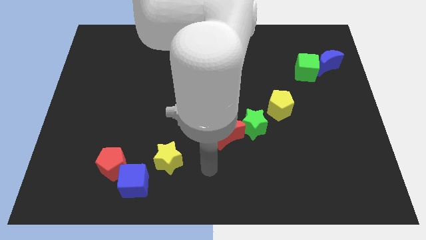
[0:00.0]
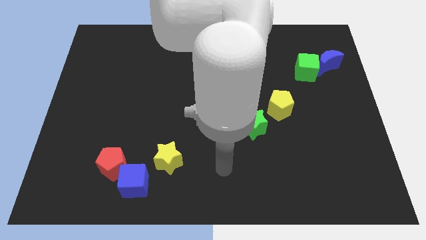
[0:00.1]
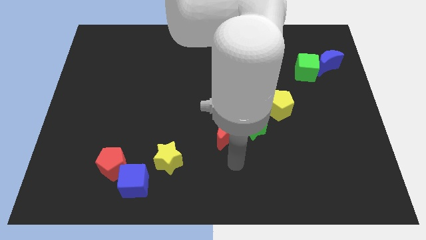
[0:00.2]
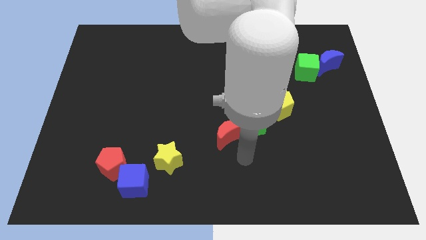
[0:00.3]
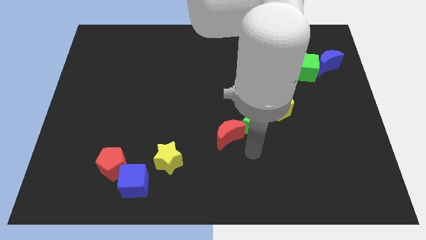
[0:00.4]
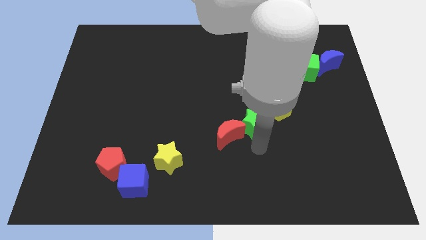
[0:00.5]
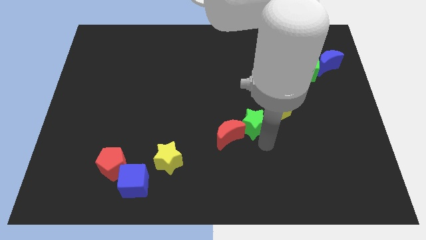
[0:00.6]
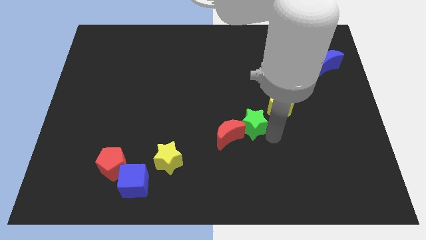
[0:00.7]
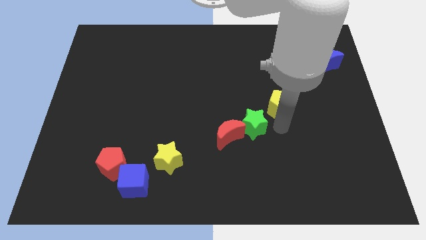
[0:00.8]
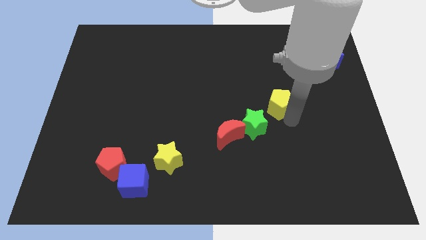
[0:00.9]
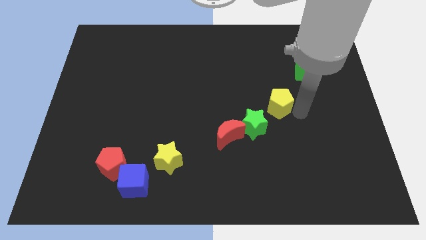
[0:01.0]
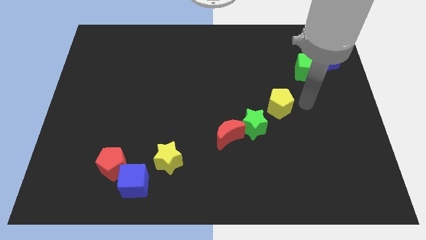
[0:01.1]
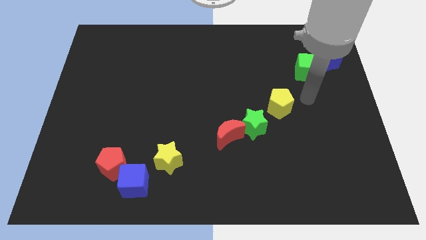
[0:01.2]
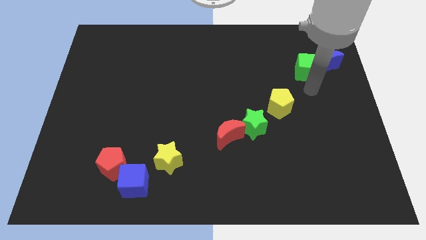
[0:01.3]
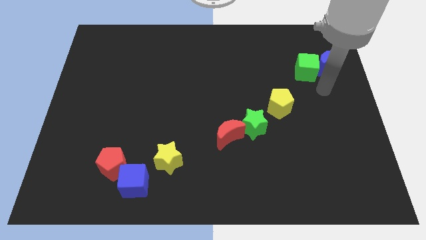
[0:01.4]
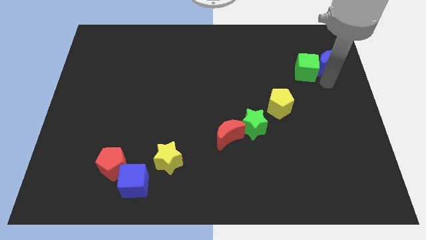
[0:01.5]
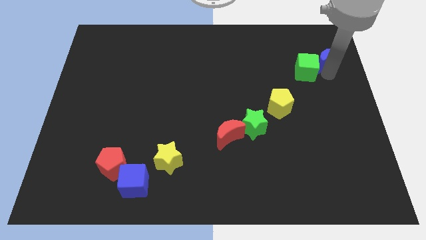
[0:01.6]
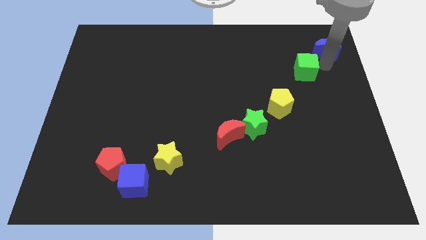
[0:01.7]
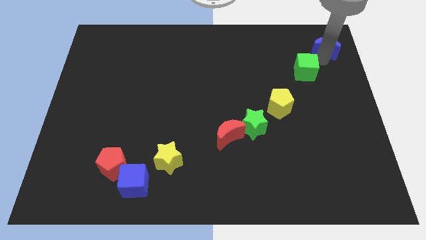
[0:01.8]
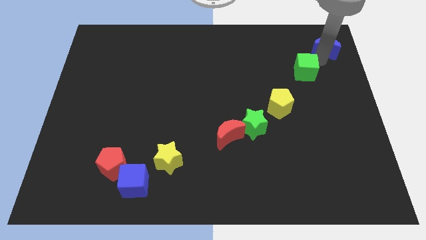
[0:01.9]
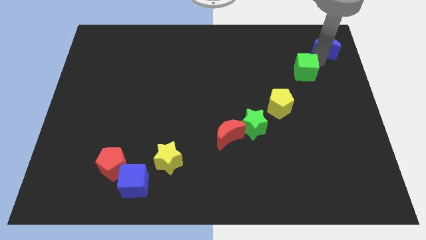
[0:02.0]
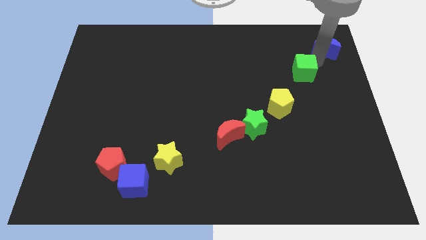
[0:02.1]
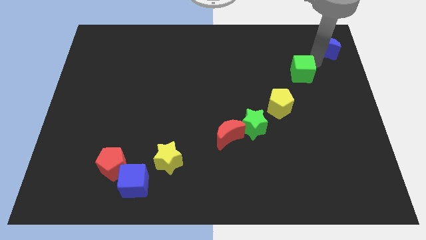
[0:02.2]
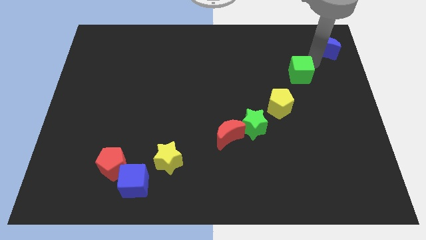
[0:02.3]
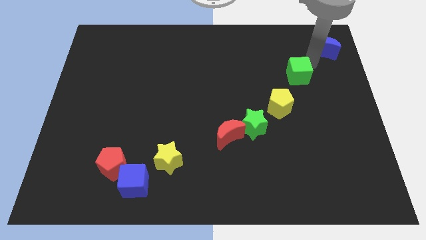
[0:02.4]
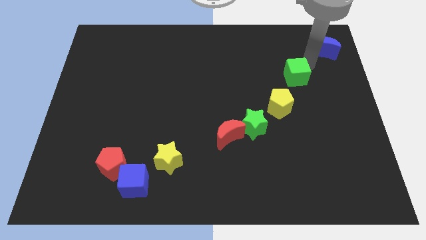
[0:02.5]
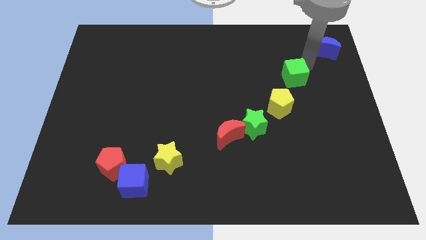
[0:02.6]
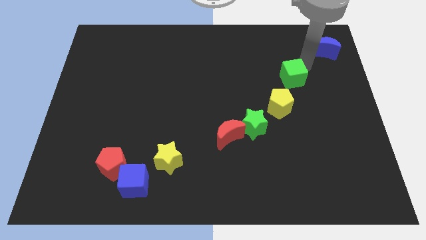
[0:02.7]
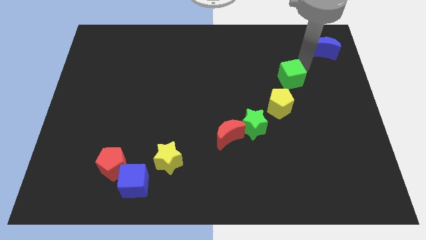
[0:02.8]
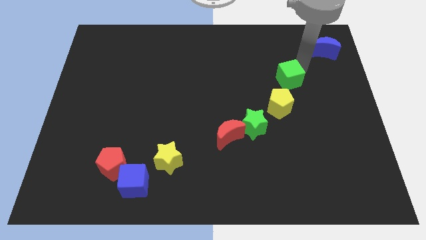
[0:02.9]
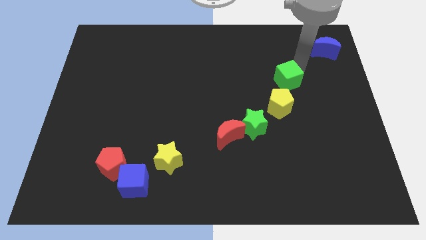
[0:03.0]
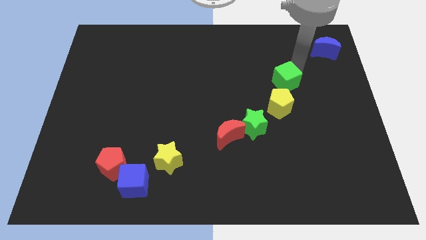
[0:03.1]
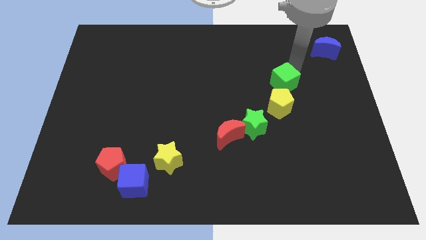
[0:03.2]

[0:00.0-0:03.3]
push the green cube downwards and then left a little bit

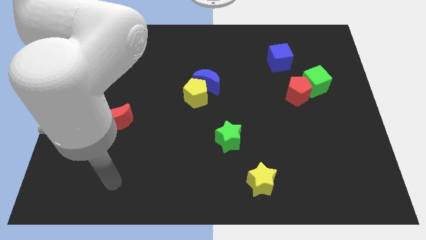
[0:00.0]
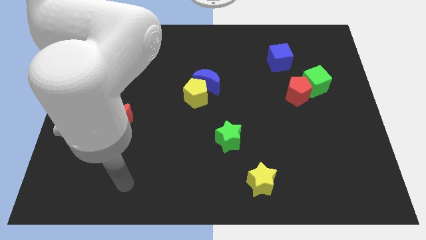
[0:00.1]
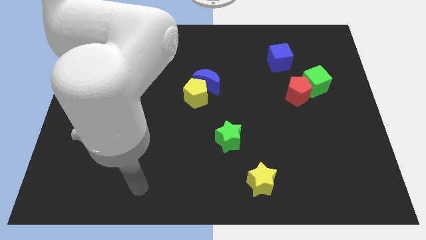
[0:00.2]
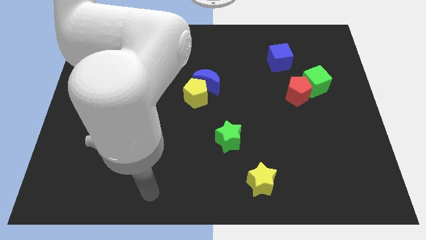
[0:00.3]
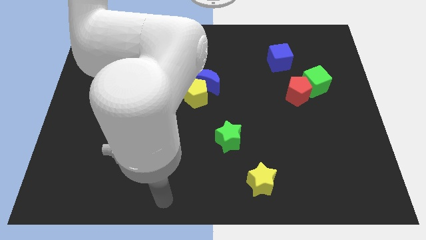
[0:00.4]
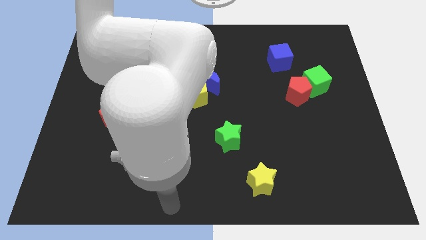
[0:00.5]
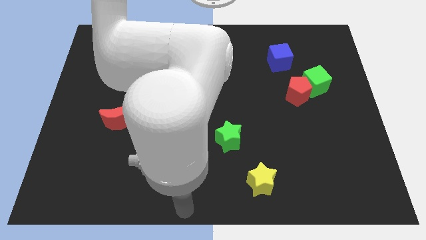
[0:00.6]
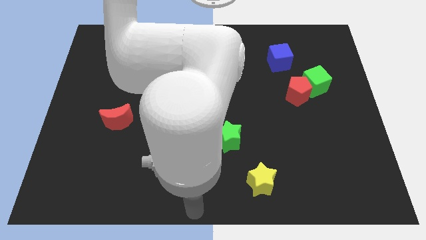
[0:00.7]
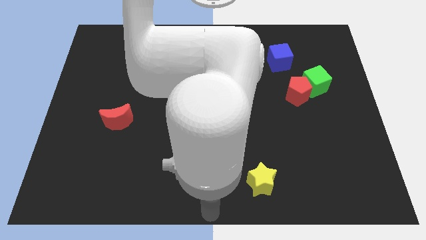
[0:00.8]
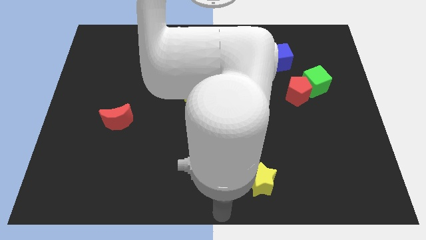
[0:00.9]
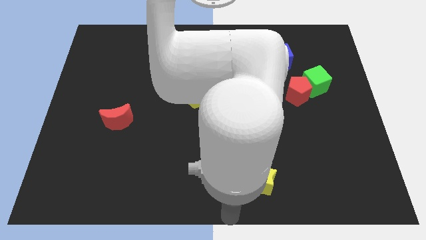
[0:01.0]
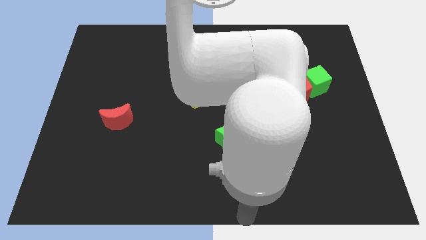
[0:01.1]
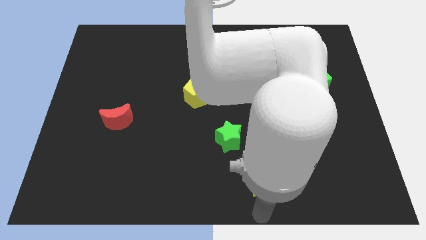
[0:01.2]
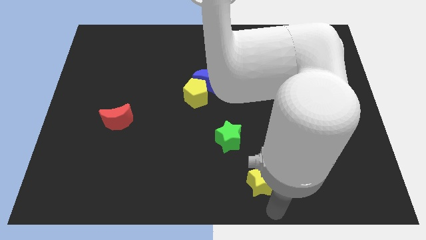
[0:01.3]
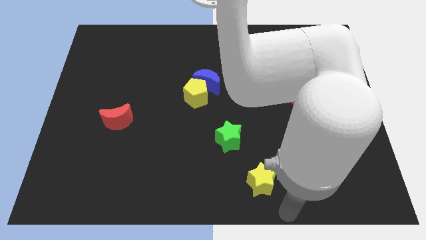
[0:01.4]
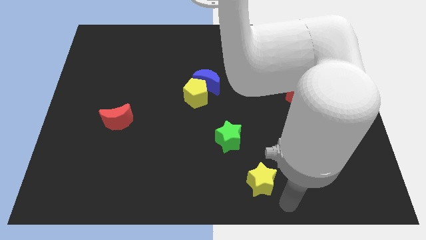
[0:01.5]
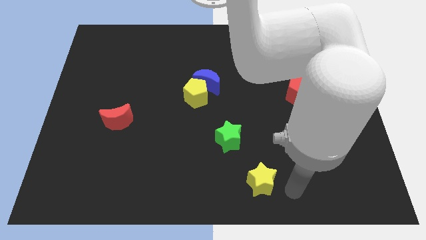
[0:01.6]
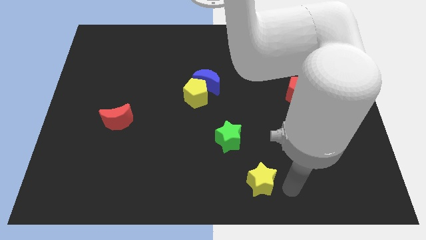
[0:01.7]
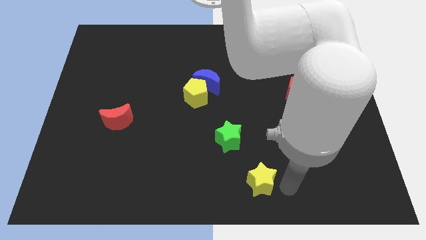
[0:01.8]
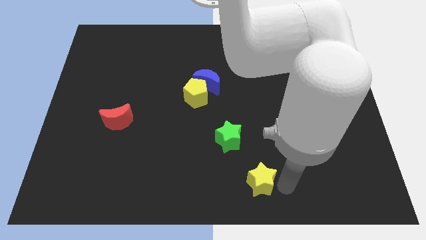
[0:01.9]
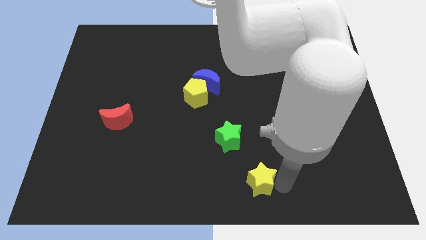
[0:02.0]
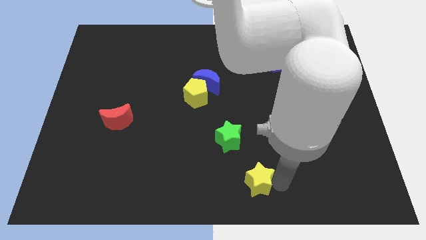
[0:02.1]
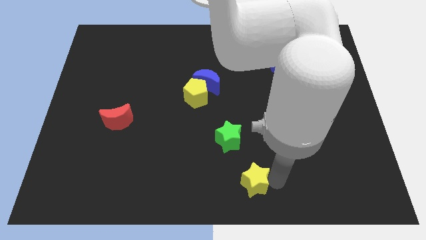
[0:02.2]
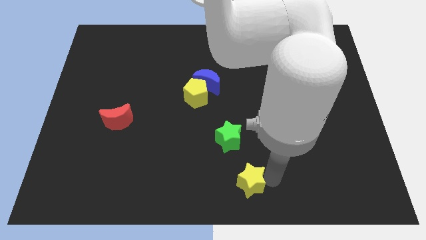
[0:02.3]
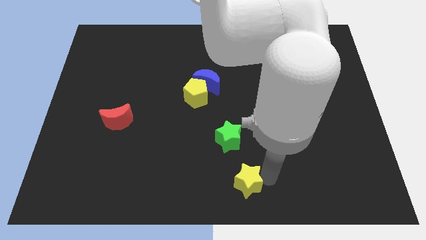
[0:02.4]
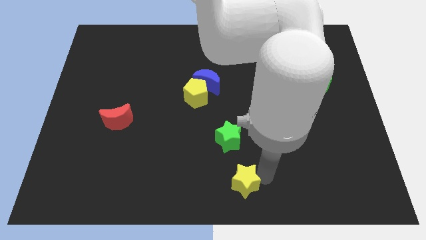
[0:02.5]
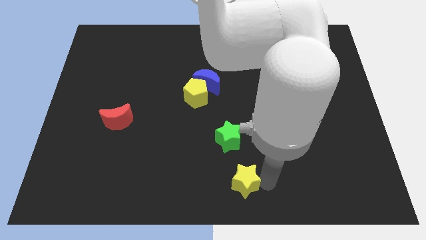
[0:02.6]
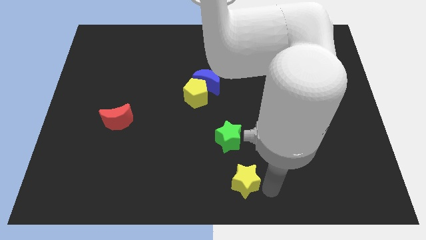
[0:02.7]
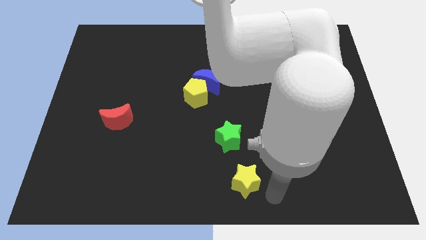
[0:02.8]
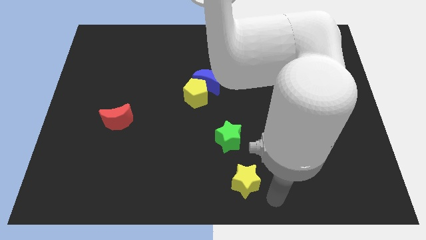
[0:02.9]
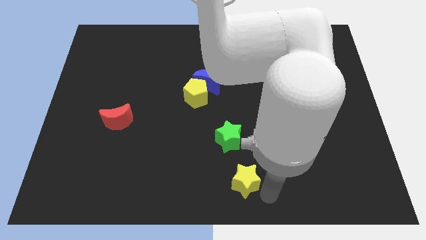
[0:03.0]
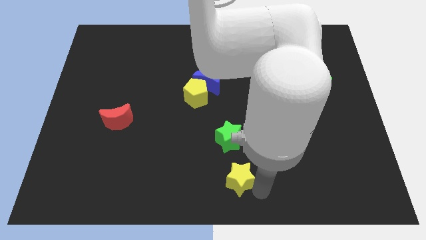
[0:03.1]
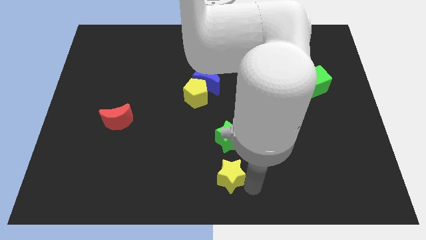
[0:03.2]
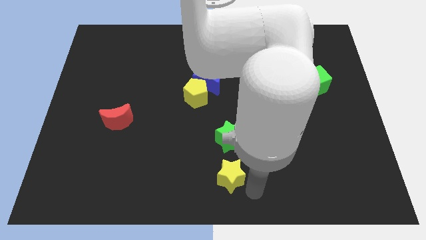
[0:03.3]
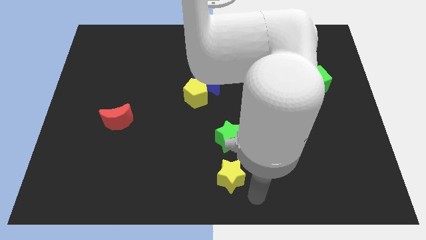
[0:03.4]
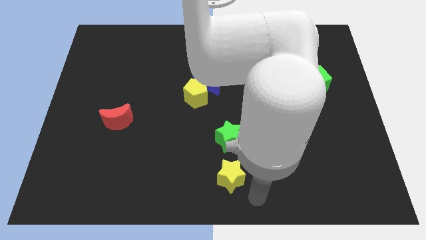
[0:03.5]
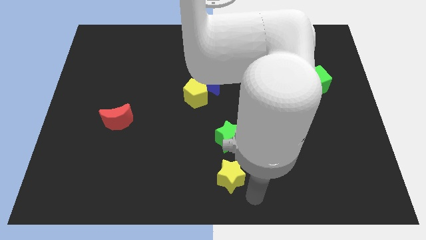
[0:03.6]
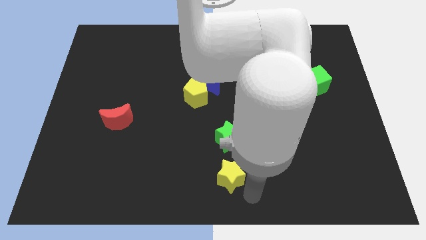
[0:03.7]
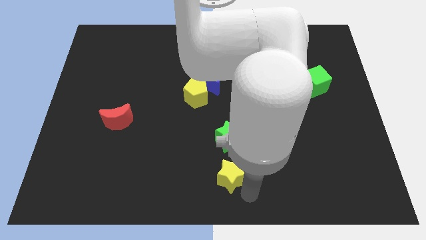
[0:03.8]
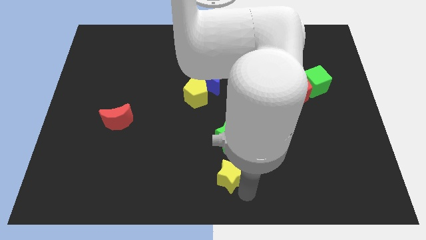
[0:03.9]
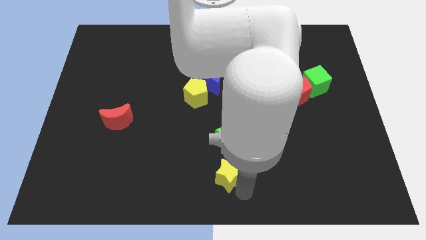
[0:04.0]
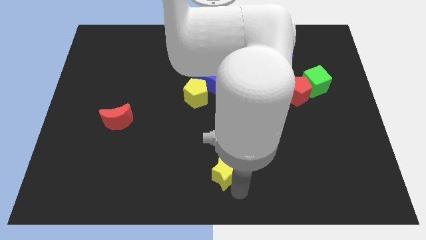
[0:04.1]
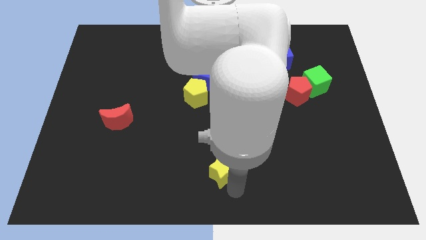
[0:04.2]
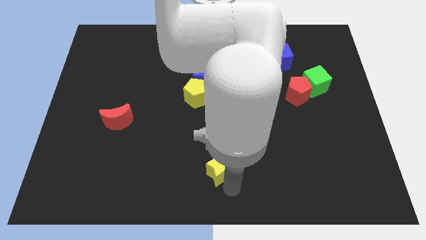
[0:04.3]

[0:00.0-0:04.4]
slightly push the yellow star up and to the left diagonally

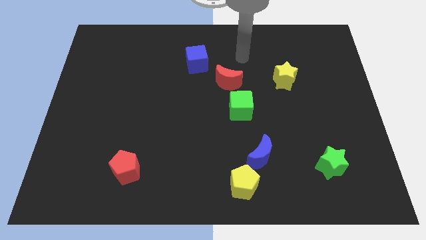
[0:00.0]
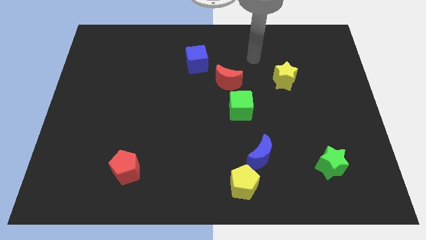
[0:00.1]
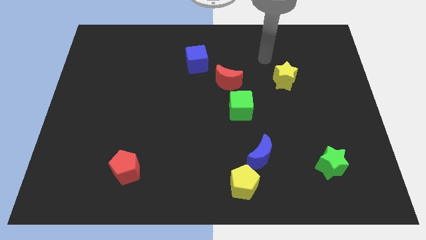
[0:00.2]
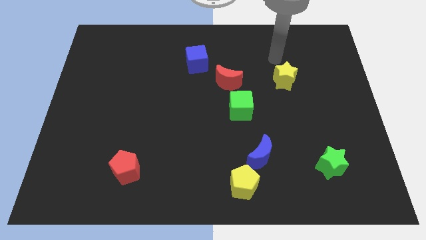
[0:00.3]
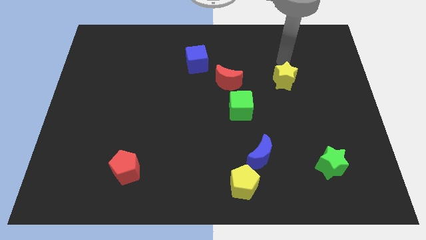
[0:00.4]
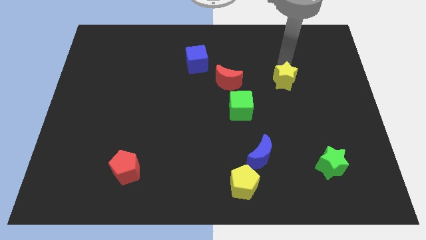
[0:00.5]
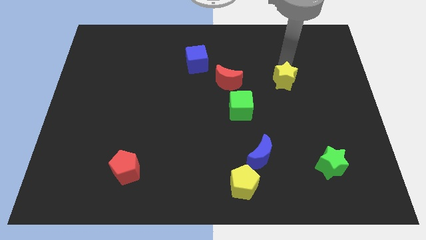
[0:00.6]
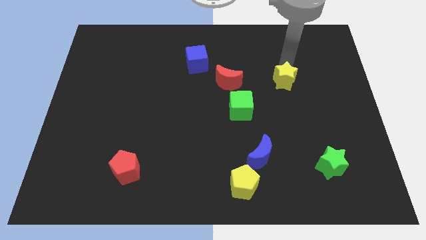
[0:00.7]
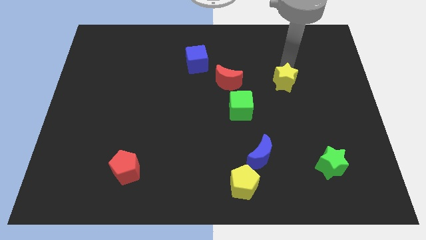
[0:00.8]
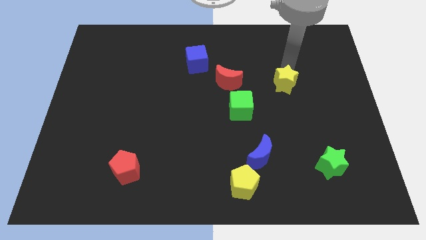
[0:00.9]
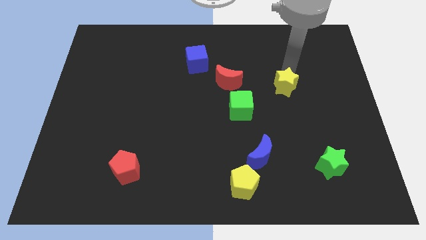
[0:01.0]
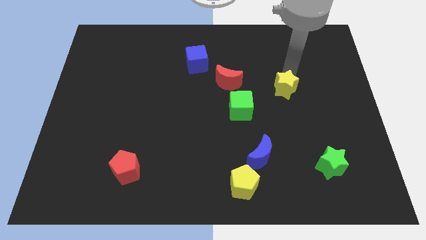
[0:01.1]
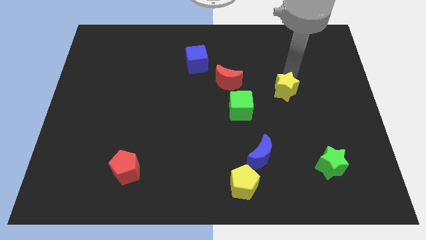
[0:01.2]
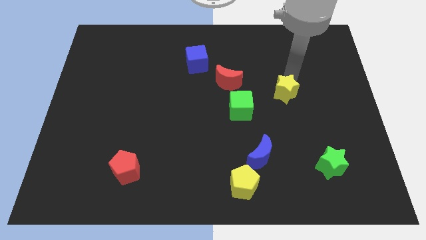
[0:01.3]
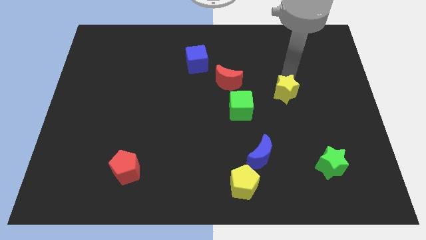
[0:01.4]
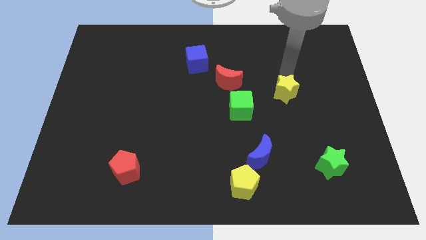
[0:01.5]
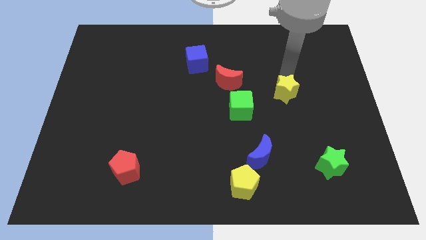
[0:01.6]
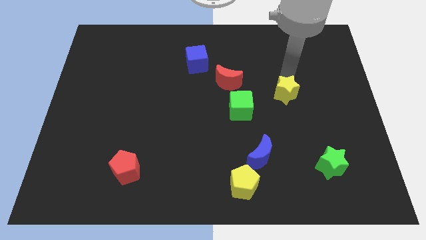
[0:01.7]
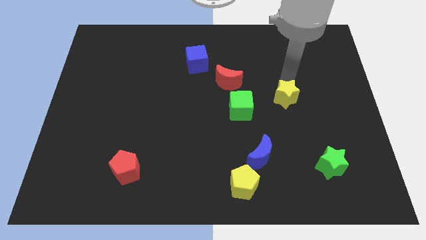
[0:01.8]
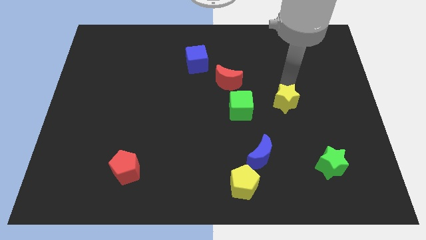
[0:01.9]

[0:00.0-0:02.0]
slightly slide the yellow star down
